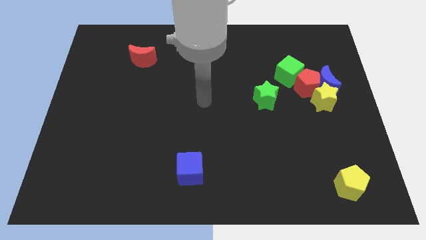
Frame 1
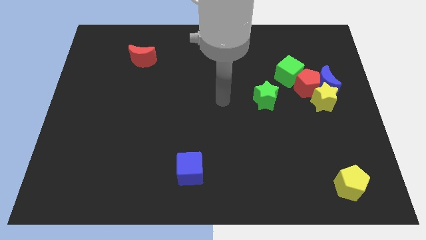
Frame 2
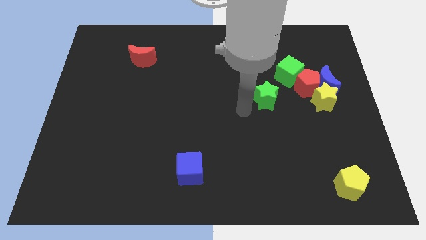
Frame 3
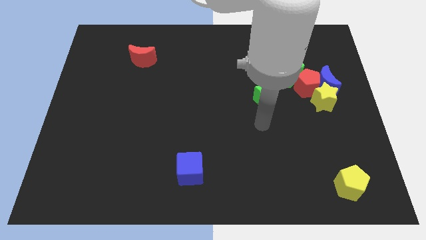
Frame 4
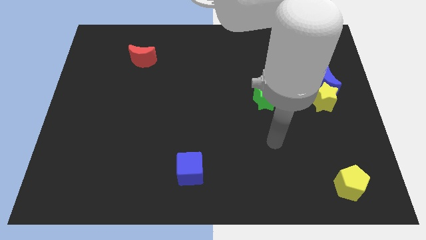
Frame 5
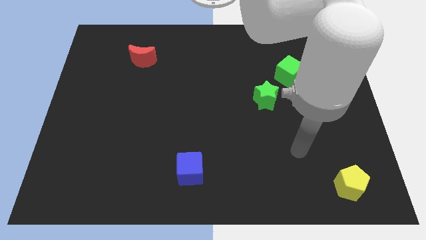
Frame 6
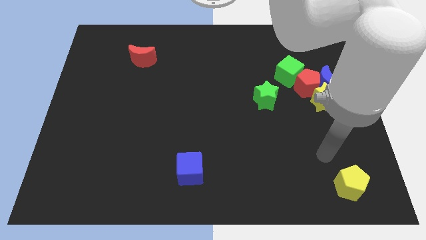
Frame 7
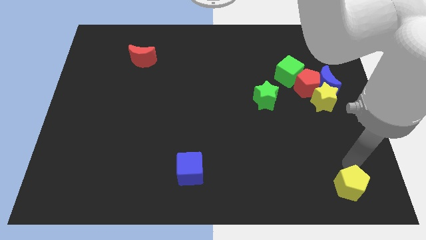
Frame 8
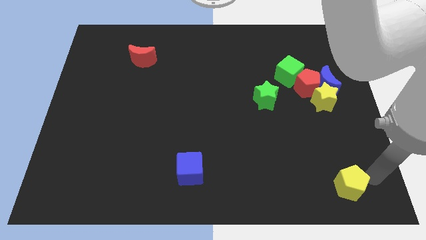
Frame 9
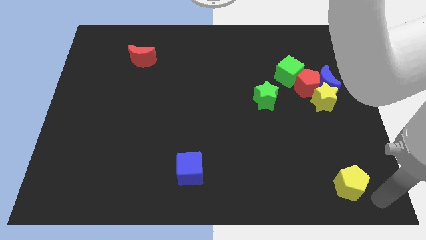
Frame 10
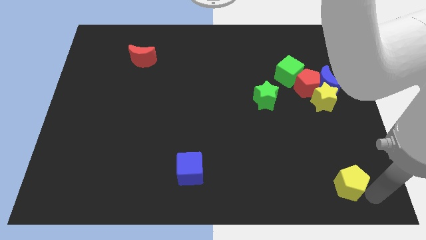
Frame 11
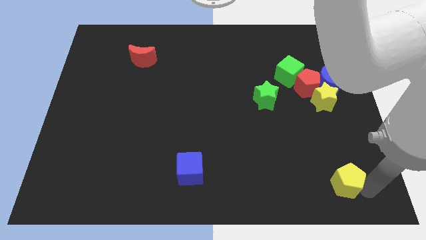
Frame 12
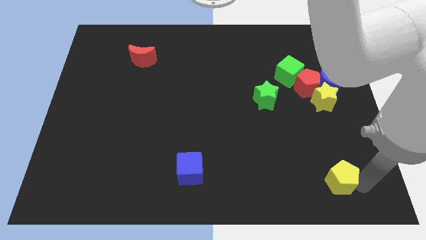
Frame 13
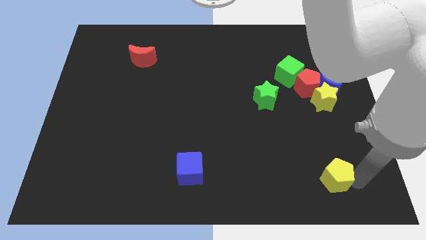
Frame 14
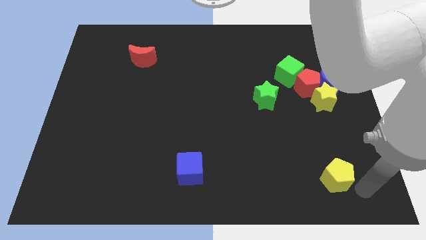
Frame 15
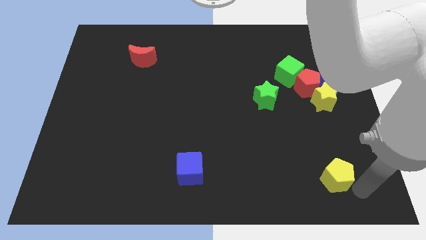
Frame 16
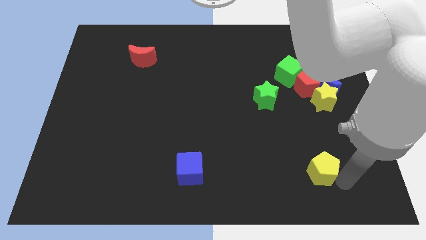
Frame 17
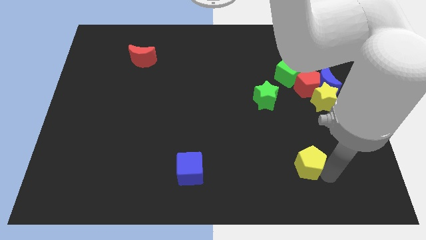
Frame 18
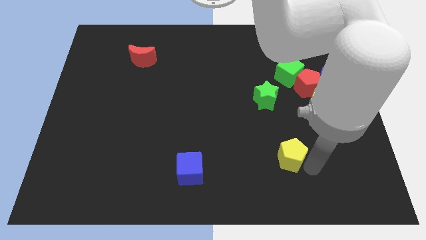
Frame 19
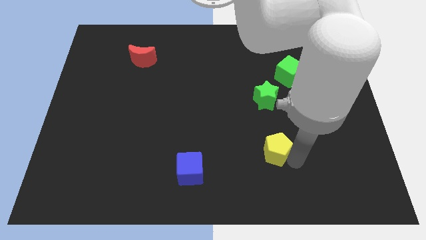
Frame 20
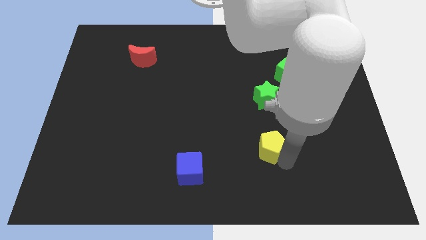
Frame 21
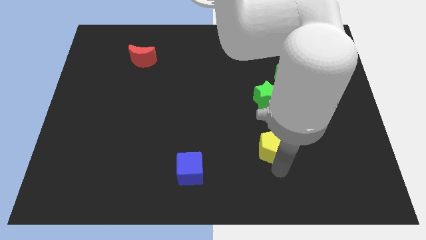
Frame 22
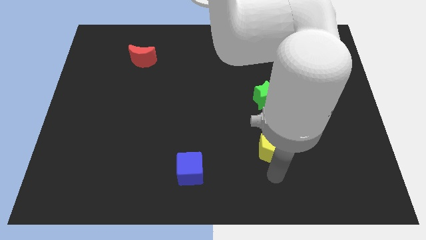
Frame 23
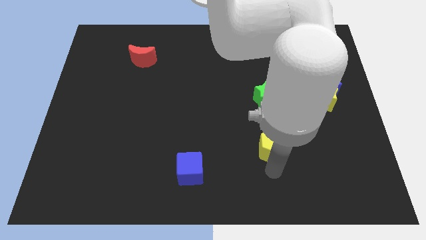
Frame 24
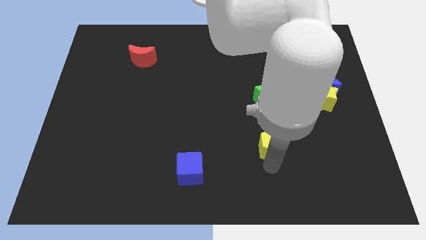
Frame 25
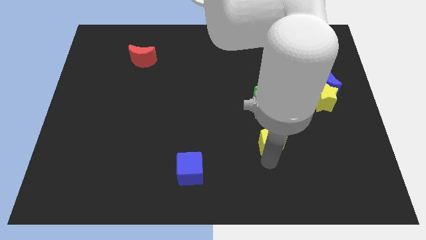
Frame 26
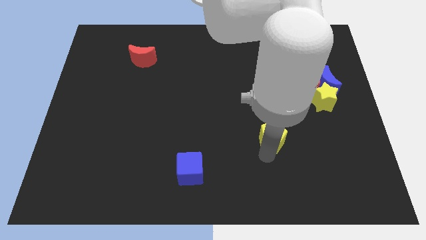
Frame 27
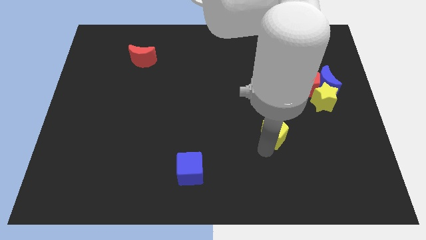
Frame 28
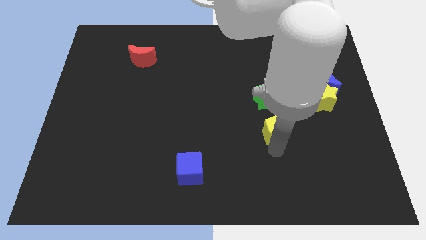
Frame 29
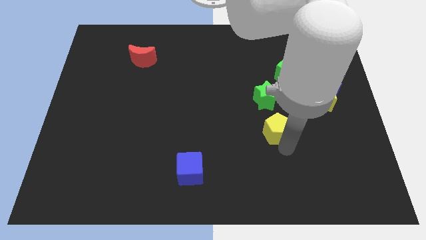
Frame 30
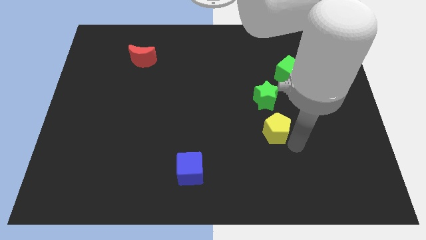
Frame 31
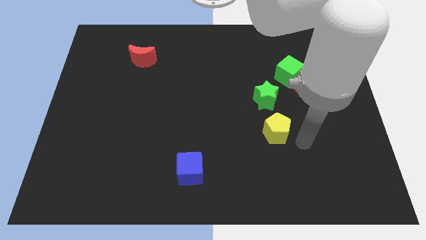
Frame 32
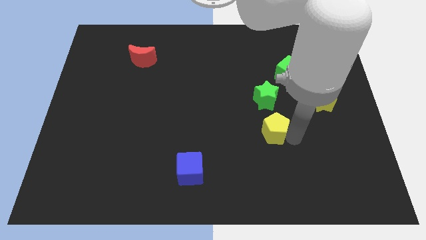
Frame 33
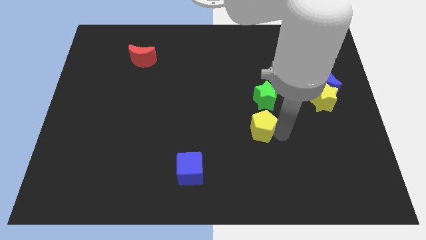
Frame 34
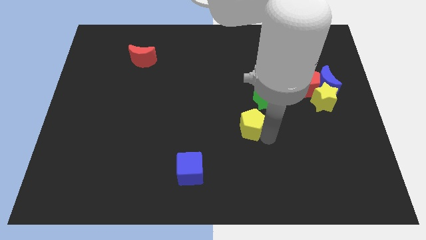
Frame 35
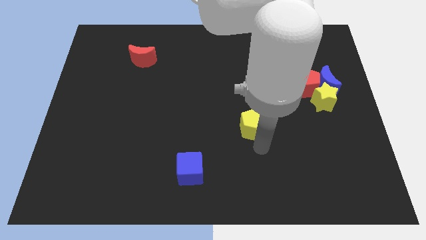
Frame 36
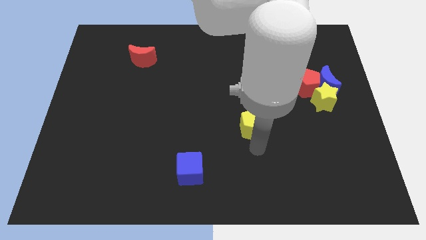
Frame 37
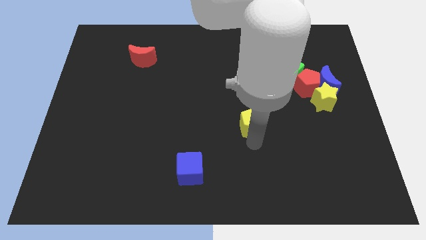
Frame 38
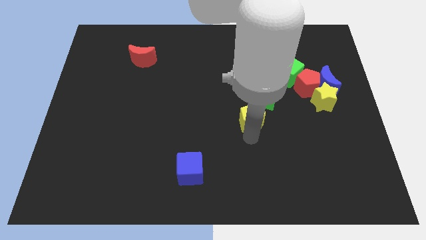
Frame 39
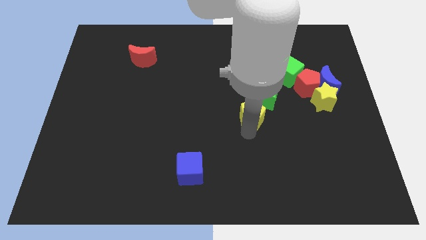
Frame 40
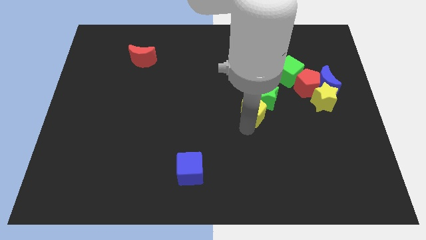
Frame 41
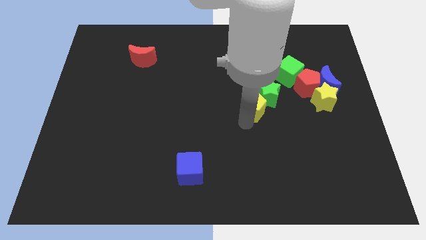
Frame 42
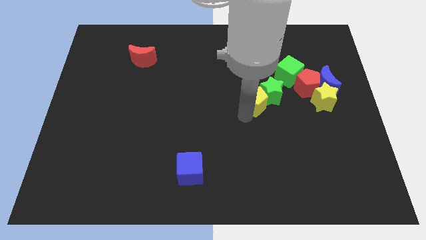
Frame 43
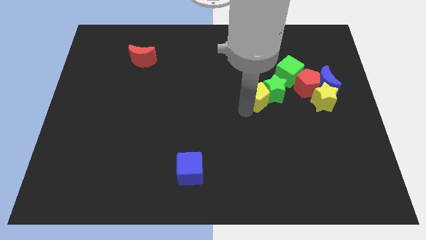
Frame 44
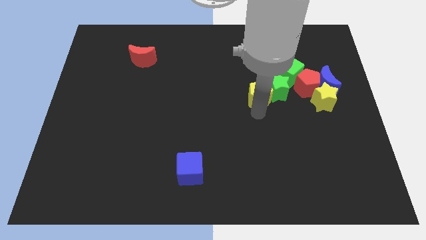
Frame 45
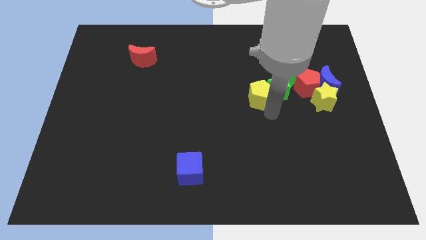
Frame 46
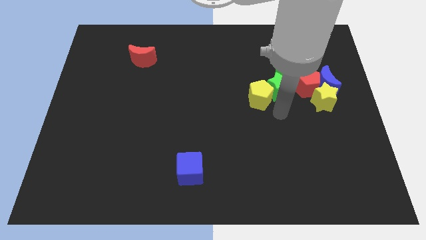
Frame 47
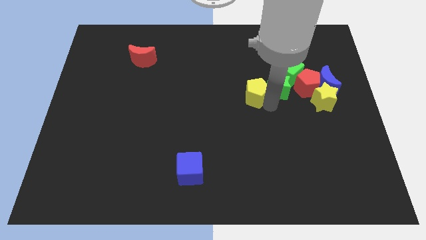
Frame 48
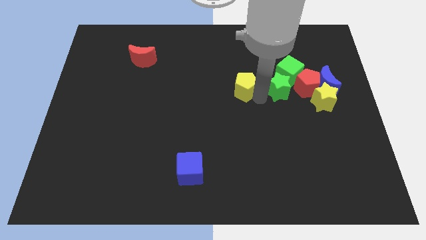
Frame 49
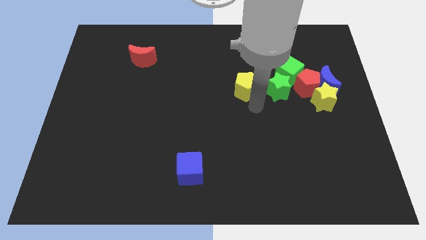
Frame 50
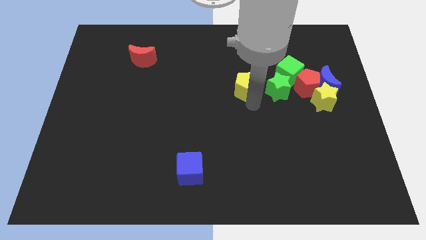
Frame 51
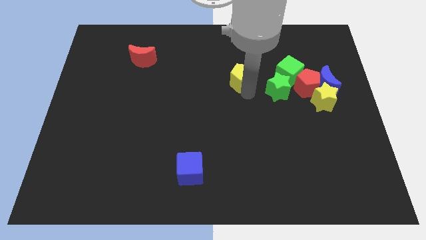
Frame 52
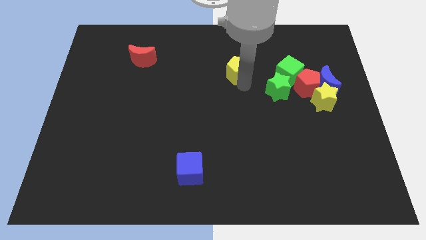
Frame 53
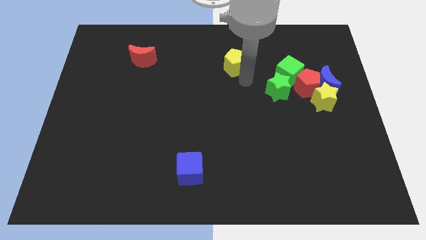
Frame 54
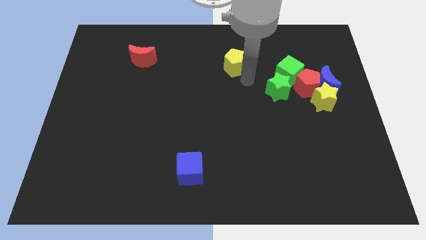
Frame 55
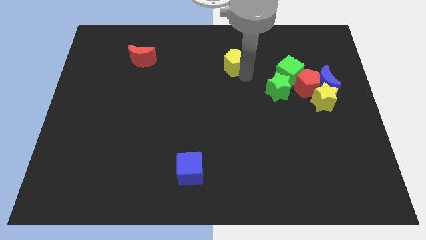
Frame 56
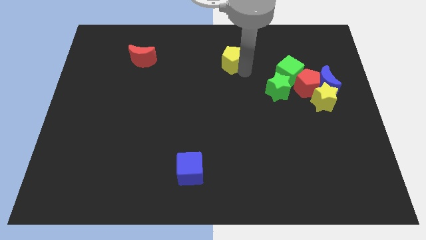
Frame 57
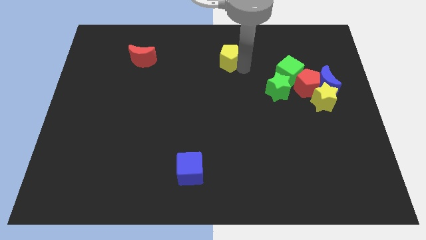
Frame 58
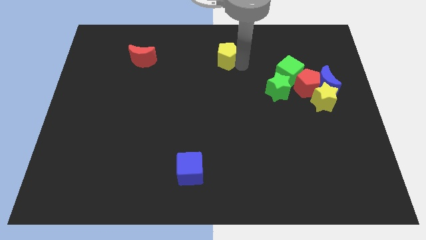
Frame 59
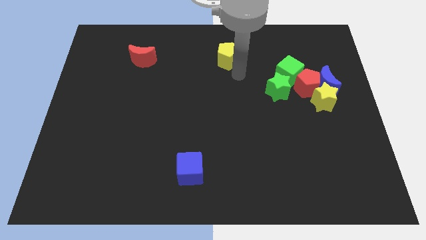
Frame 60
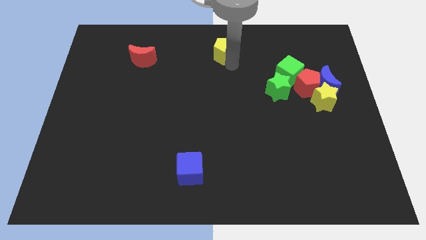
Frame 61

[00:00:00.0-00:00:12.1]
push the yellow pentagon to the top side

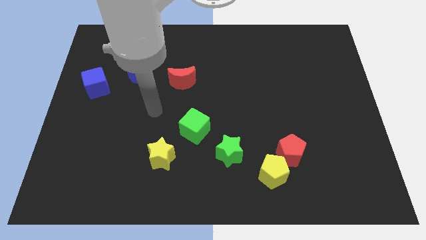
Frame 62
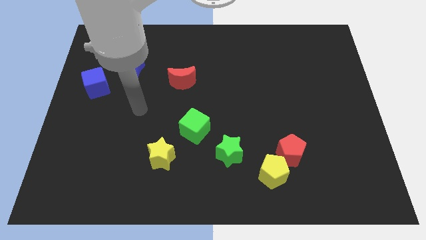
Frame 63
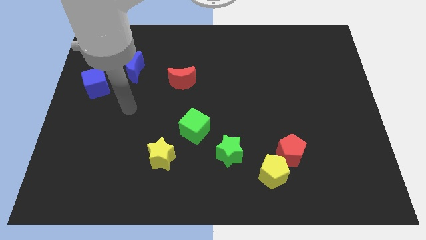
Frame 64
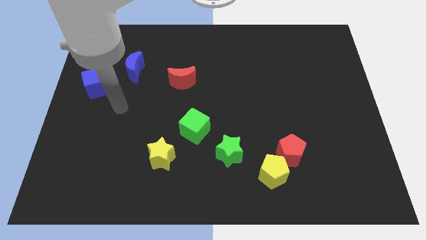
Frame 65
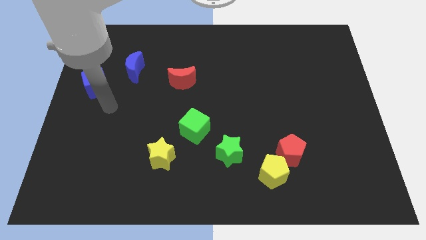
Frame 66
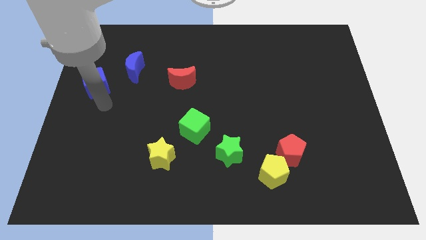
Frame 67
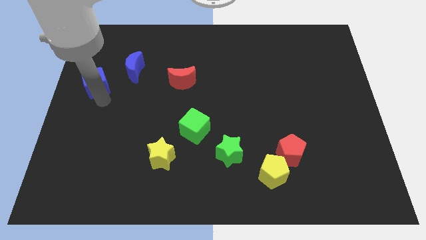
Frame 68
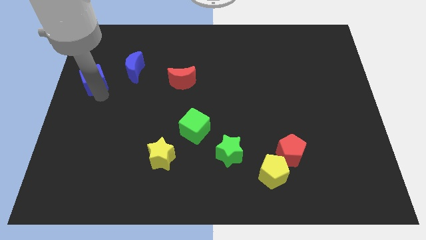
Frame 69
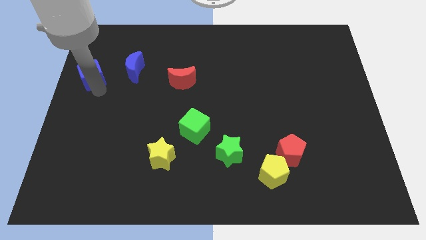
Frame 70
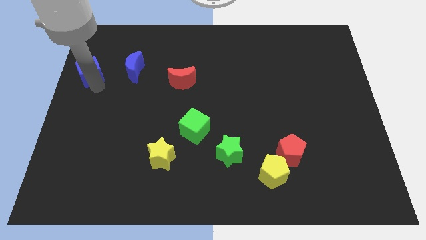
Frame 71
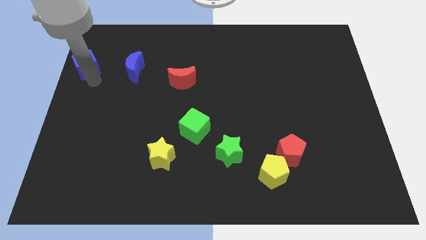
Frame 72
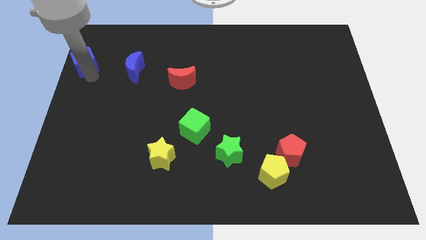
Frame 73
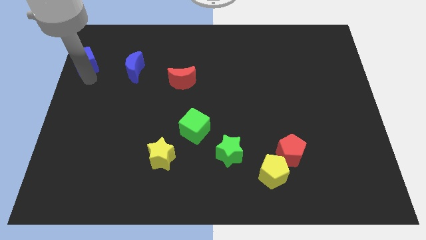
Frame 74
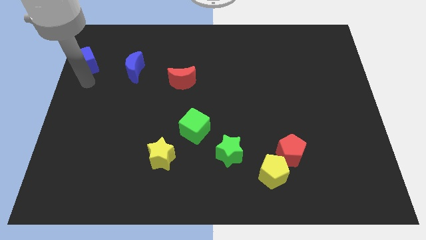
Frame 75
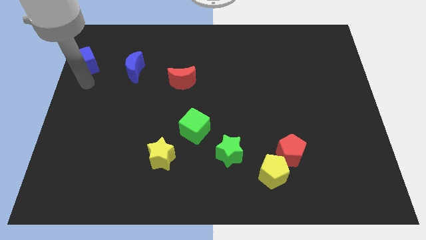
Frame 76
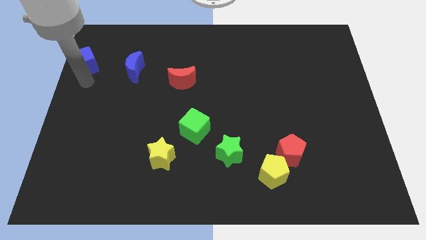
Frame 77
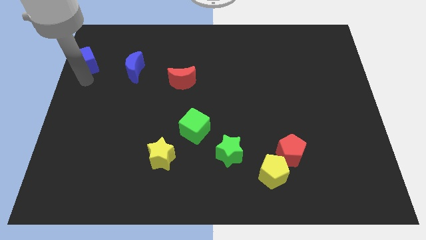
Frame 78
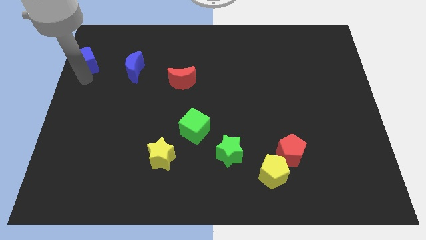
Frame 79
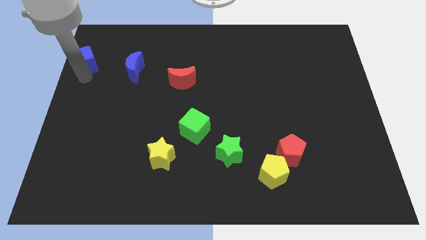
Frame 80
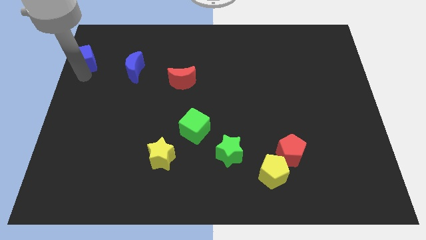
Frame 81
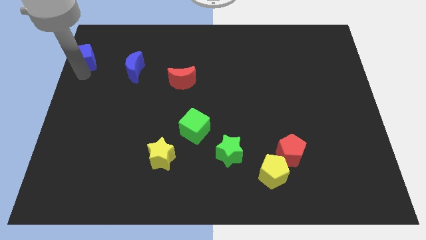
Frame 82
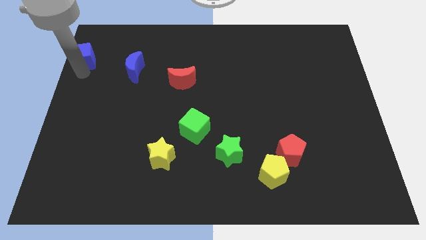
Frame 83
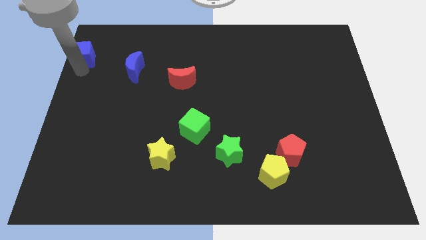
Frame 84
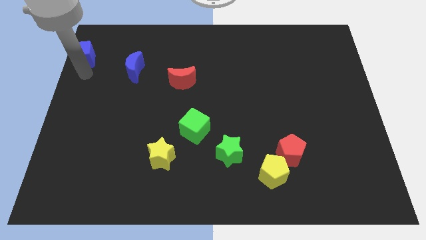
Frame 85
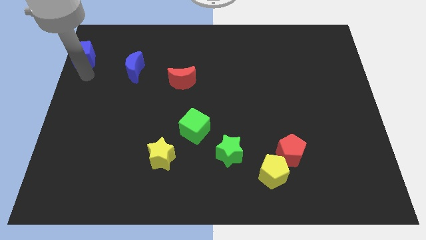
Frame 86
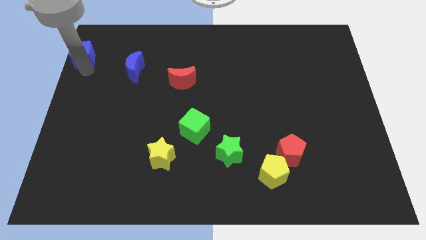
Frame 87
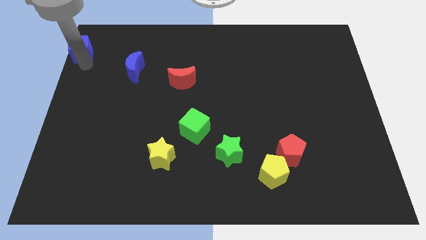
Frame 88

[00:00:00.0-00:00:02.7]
put the blue cube to the top left
